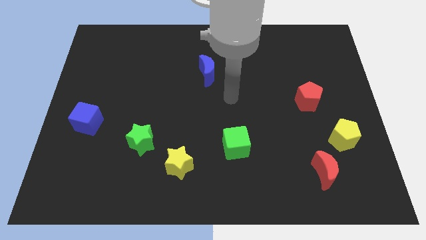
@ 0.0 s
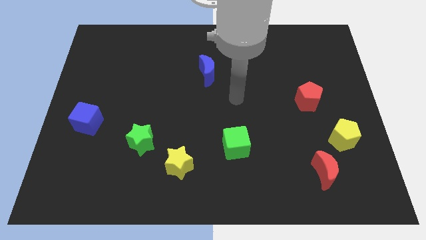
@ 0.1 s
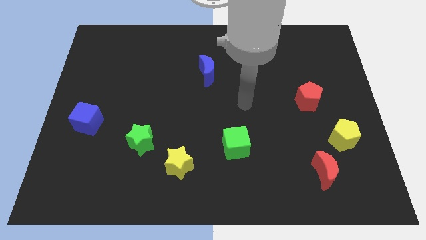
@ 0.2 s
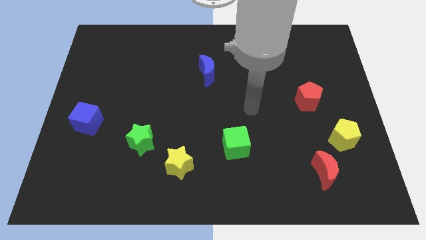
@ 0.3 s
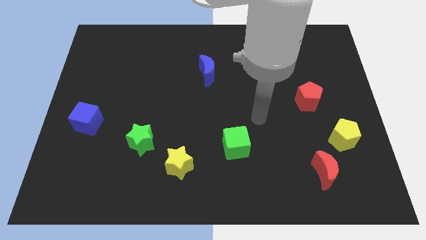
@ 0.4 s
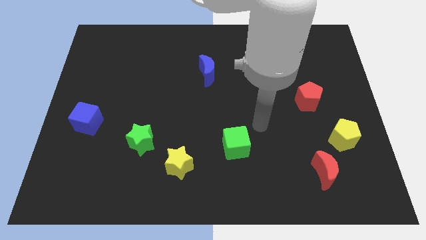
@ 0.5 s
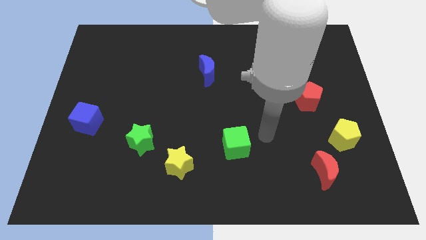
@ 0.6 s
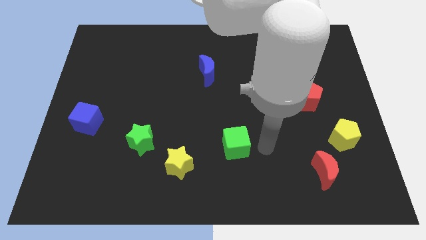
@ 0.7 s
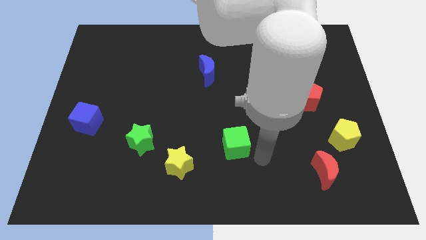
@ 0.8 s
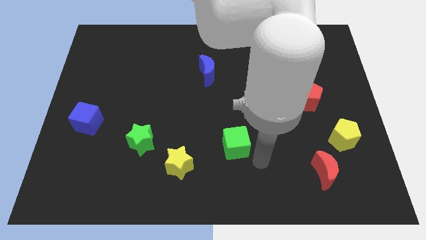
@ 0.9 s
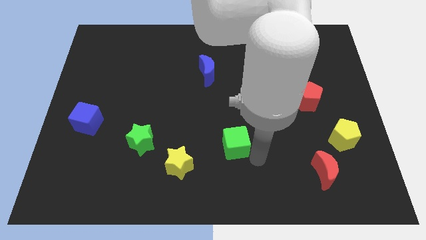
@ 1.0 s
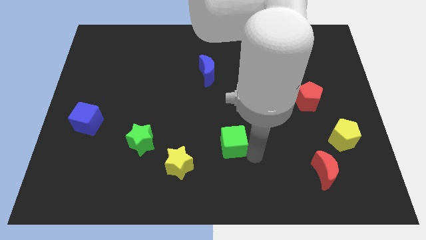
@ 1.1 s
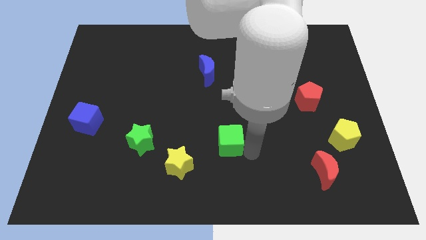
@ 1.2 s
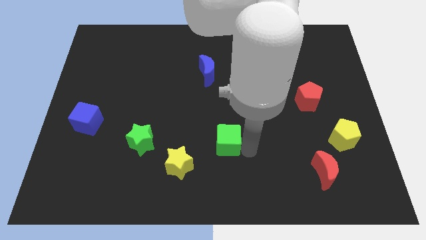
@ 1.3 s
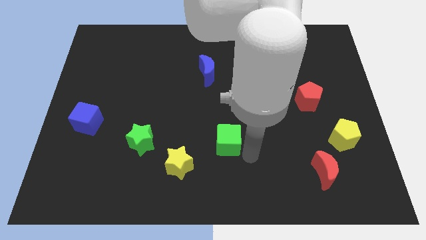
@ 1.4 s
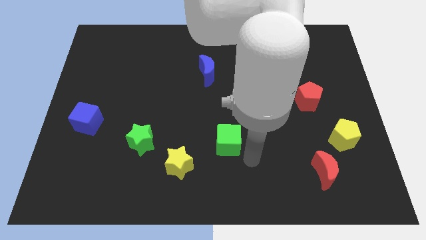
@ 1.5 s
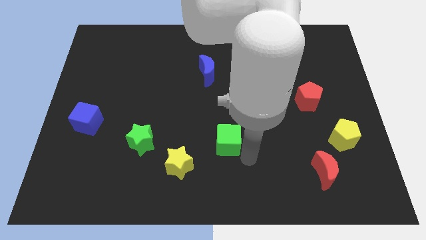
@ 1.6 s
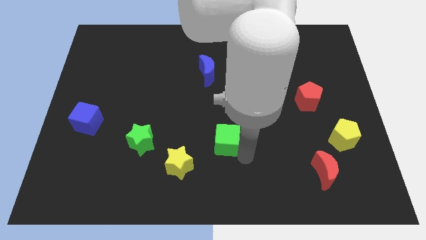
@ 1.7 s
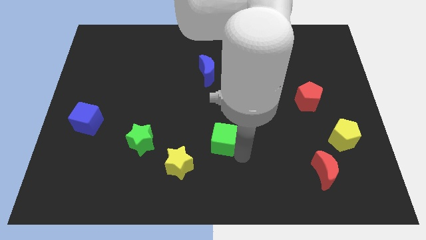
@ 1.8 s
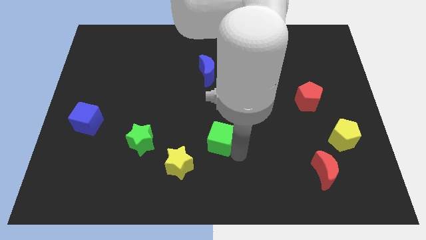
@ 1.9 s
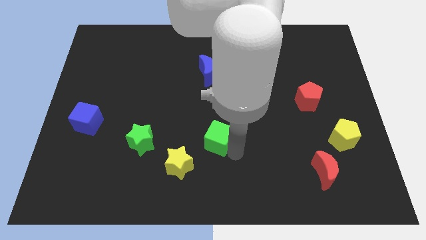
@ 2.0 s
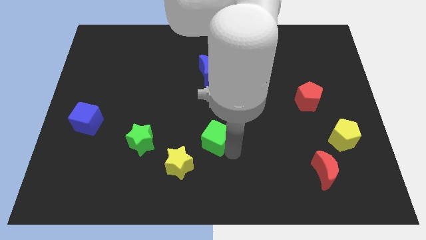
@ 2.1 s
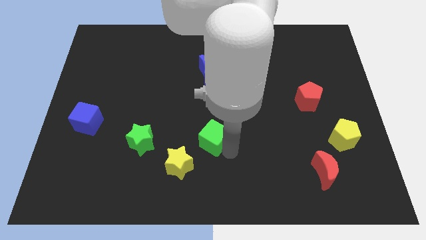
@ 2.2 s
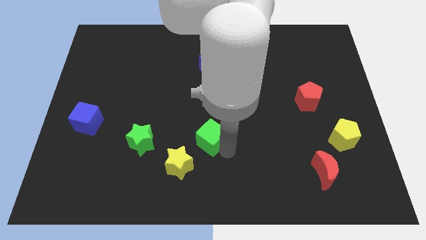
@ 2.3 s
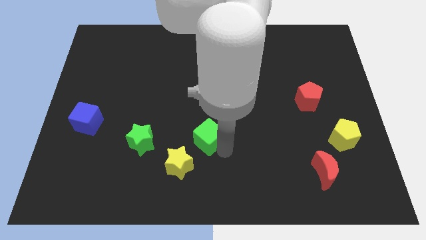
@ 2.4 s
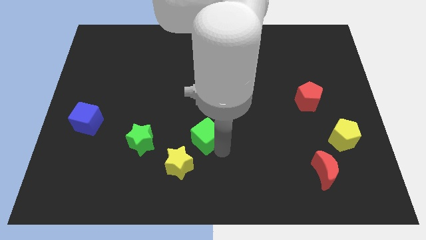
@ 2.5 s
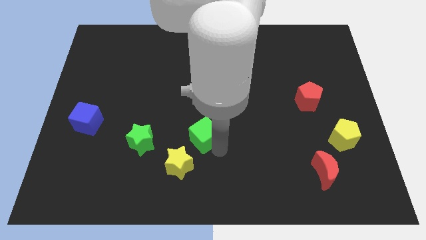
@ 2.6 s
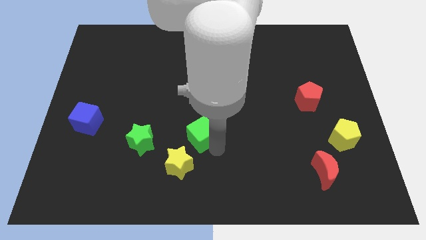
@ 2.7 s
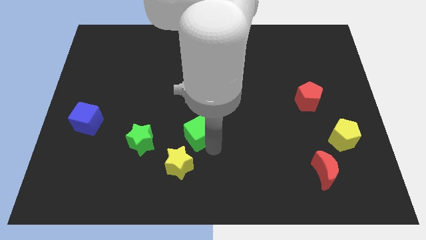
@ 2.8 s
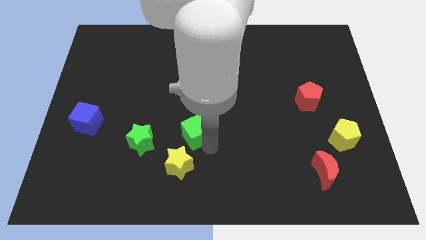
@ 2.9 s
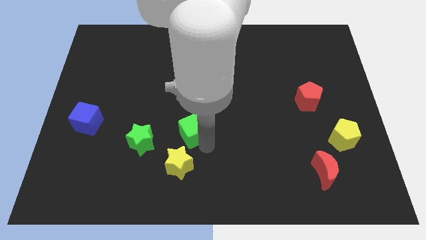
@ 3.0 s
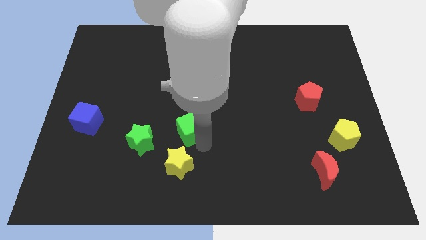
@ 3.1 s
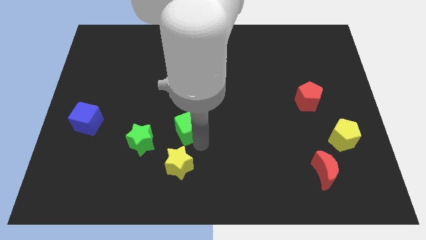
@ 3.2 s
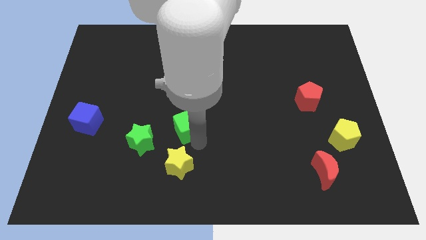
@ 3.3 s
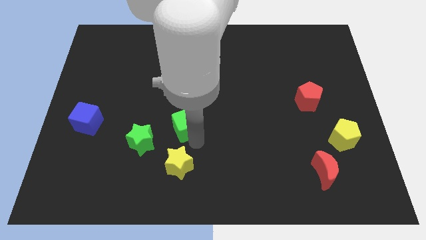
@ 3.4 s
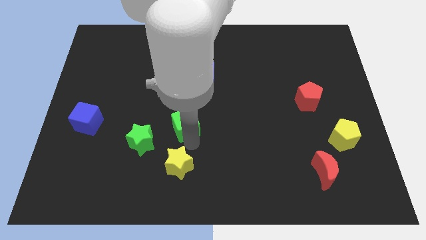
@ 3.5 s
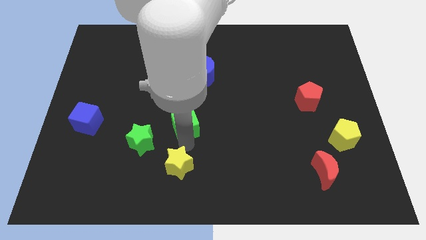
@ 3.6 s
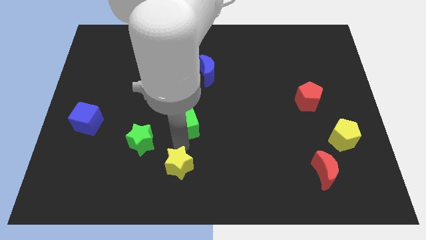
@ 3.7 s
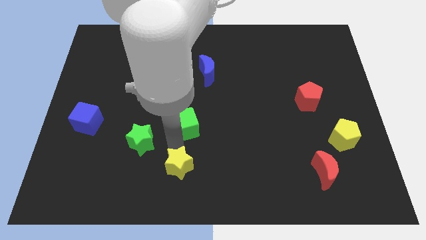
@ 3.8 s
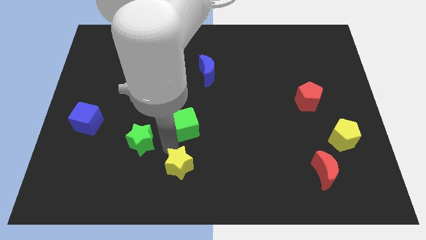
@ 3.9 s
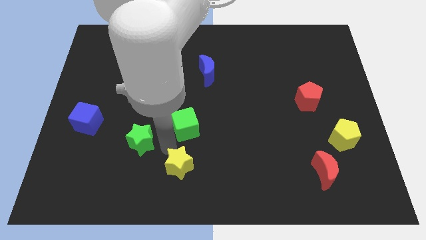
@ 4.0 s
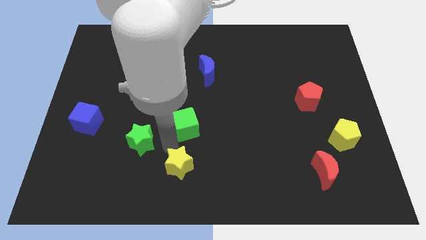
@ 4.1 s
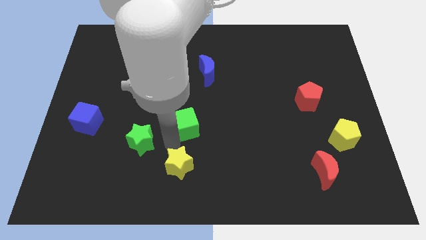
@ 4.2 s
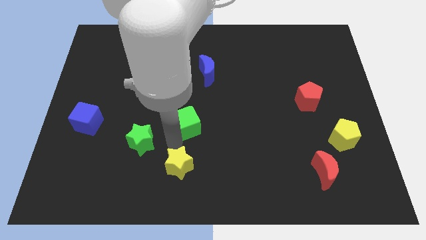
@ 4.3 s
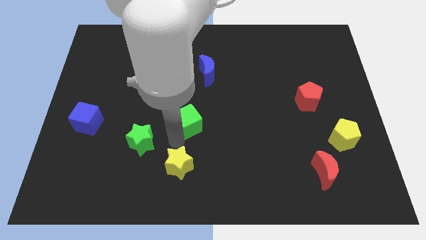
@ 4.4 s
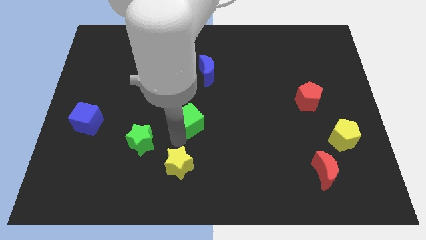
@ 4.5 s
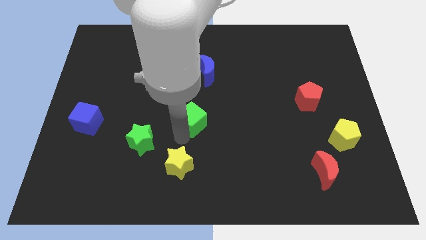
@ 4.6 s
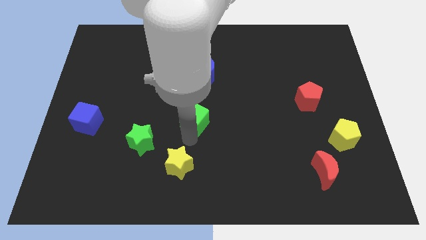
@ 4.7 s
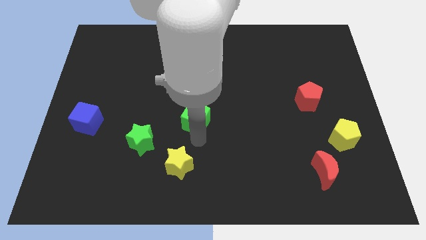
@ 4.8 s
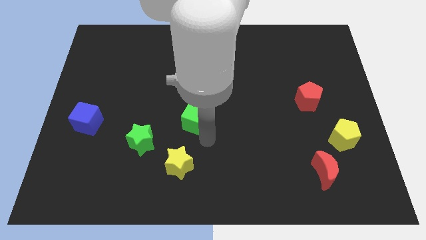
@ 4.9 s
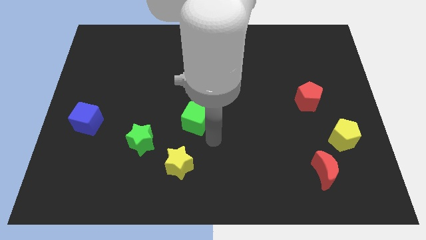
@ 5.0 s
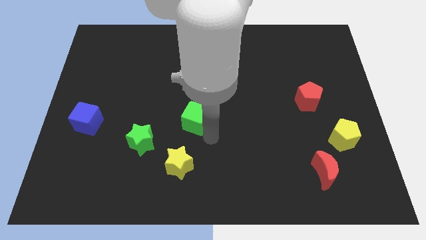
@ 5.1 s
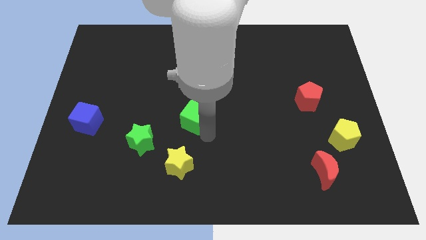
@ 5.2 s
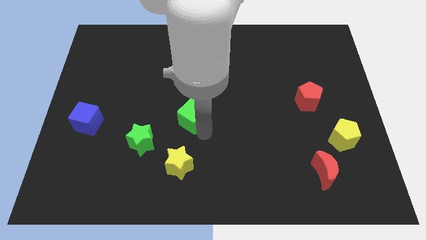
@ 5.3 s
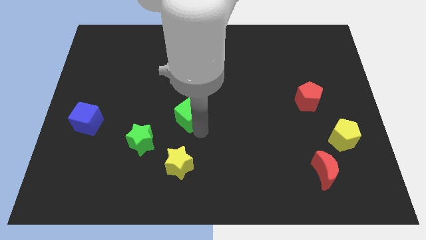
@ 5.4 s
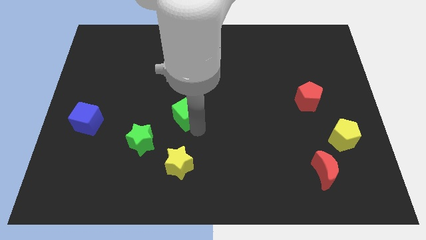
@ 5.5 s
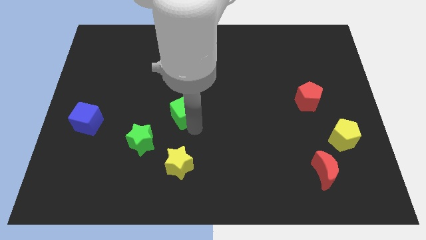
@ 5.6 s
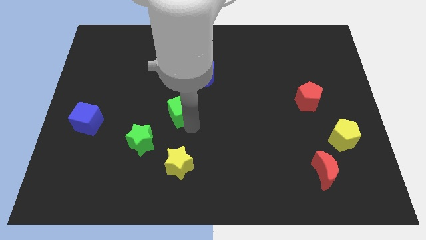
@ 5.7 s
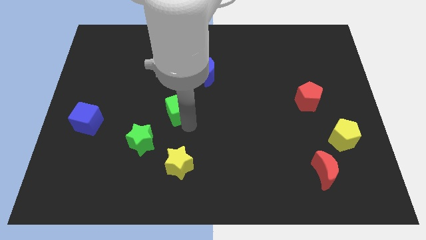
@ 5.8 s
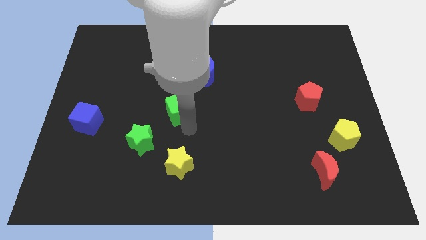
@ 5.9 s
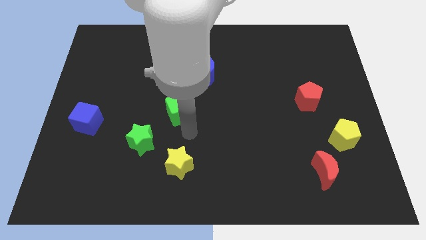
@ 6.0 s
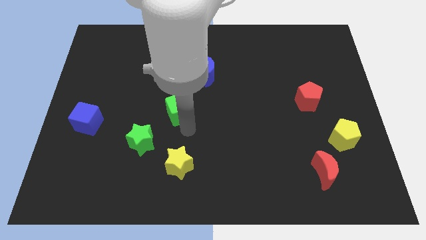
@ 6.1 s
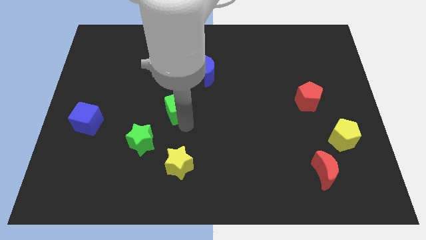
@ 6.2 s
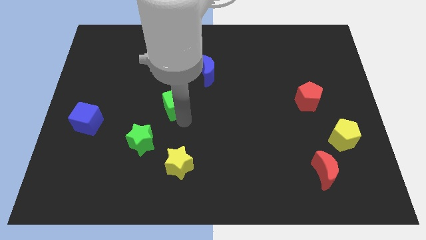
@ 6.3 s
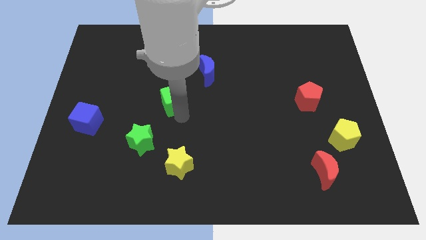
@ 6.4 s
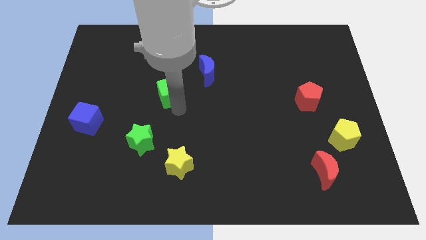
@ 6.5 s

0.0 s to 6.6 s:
move the green cube diagonally upwards and to the left

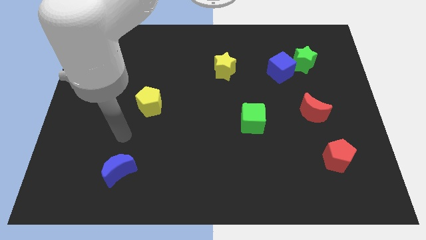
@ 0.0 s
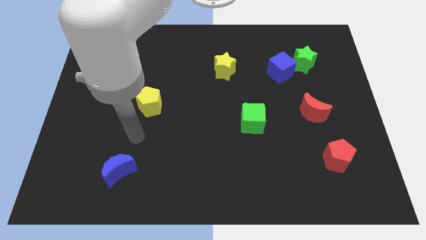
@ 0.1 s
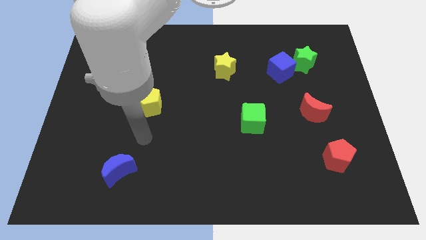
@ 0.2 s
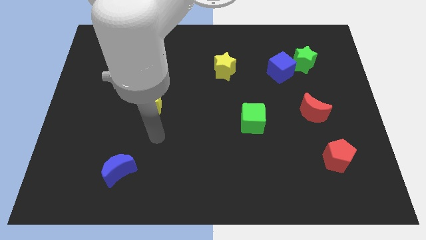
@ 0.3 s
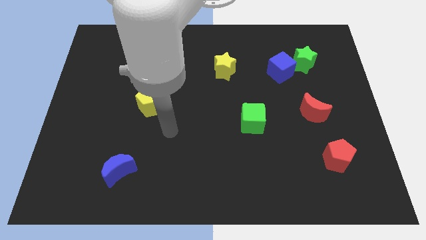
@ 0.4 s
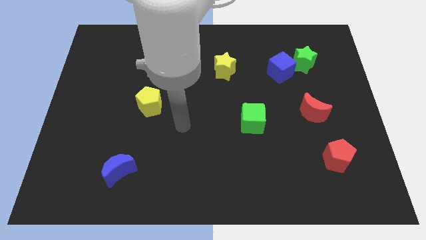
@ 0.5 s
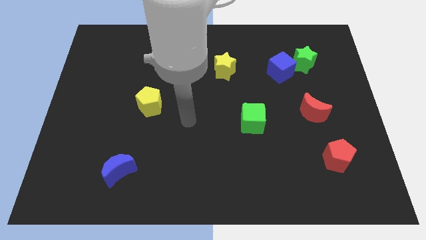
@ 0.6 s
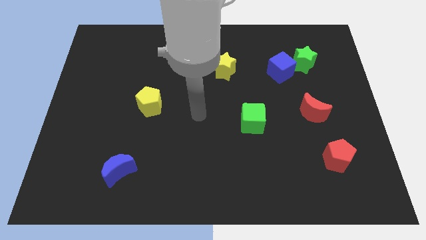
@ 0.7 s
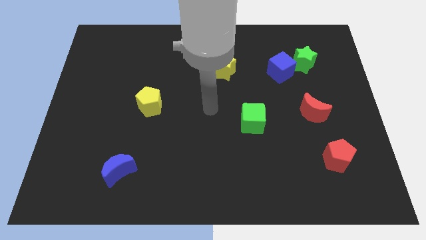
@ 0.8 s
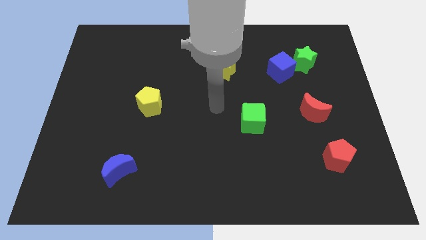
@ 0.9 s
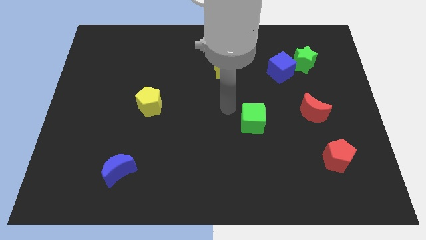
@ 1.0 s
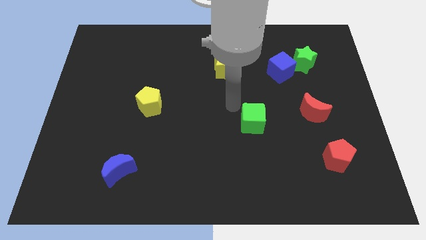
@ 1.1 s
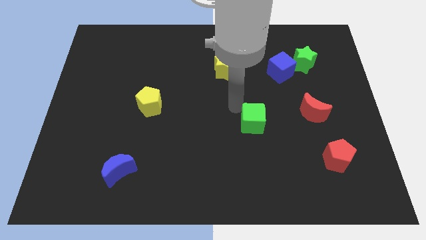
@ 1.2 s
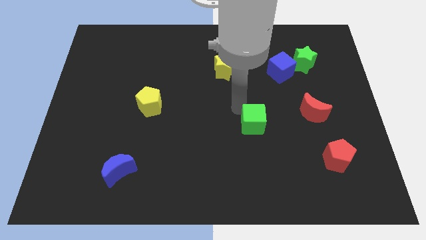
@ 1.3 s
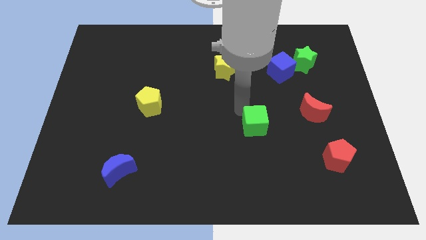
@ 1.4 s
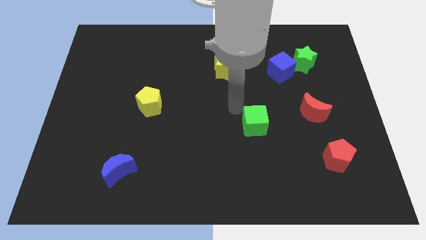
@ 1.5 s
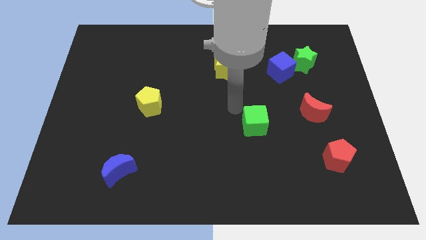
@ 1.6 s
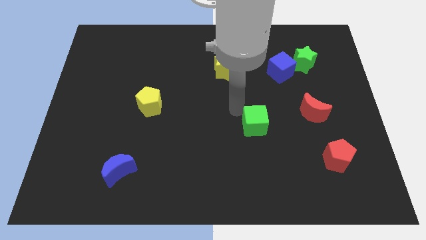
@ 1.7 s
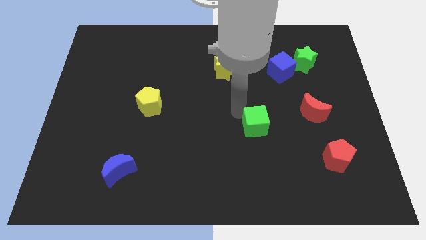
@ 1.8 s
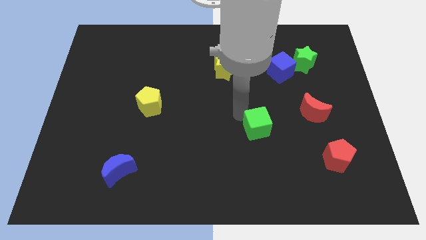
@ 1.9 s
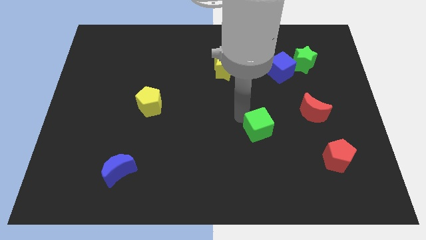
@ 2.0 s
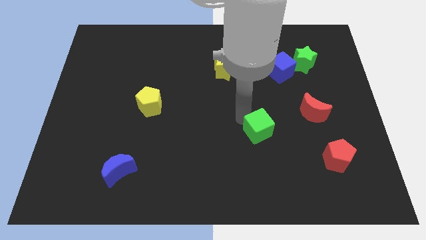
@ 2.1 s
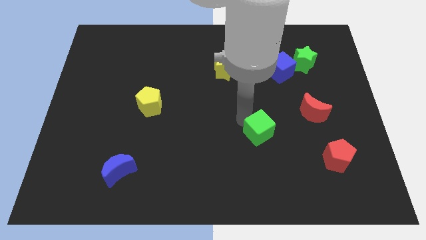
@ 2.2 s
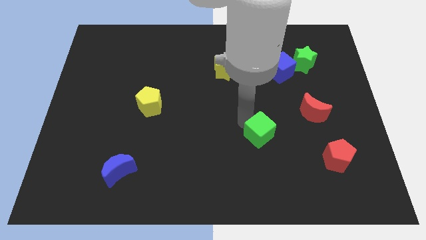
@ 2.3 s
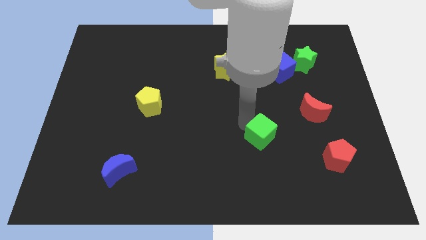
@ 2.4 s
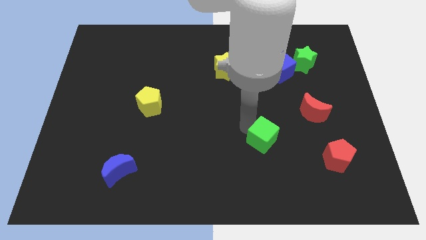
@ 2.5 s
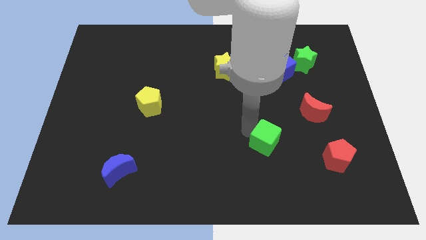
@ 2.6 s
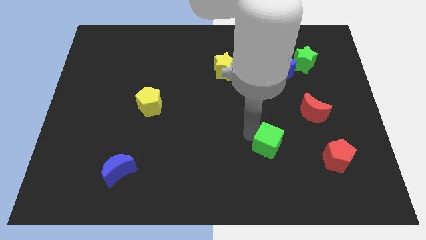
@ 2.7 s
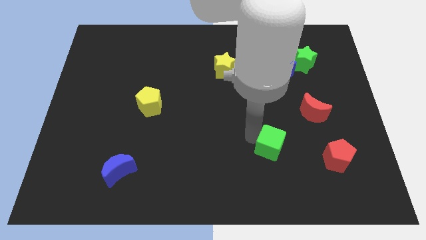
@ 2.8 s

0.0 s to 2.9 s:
slightly push the green cube downwards and to the right diagonally
